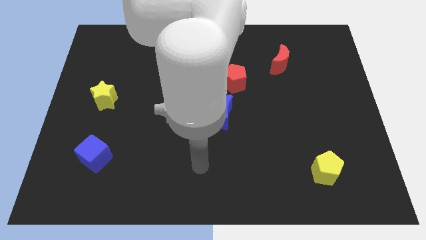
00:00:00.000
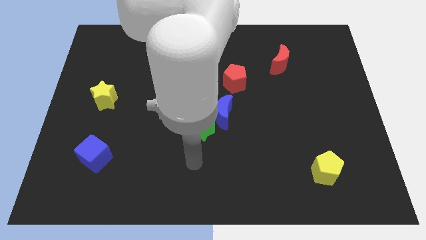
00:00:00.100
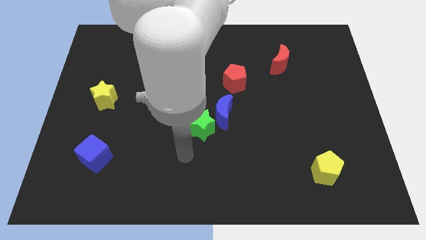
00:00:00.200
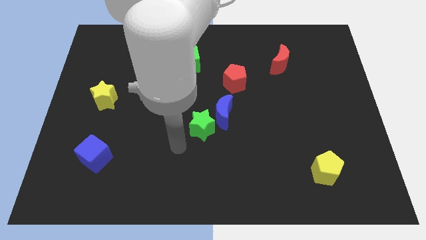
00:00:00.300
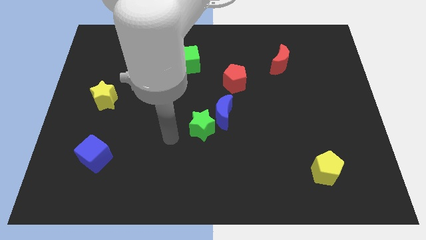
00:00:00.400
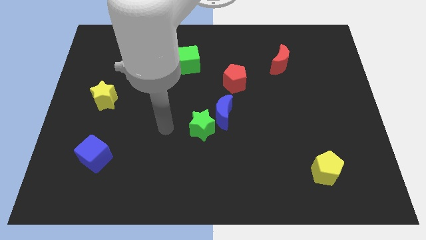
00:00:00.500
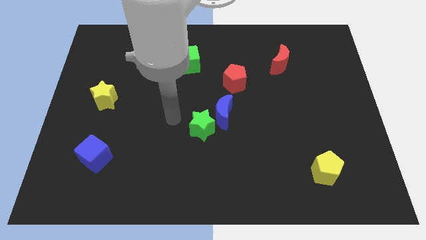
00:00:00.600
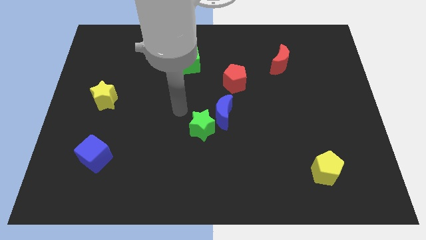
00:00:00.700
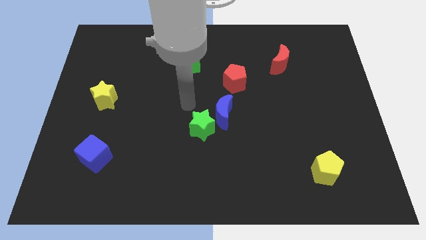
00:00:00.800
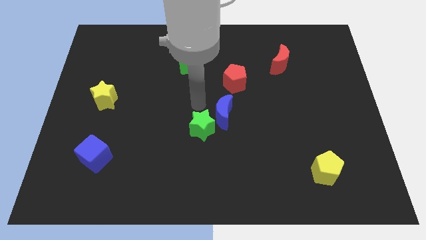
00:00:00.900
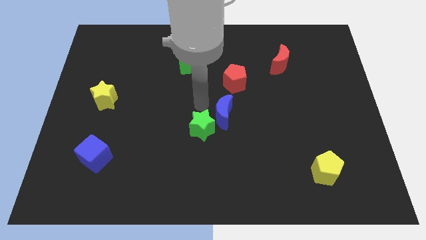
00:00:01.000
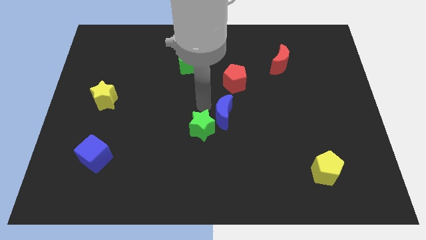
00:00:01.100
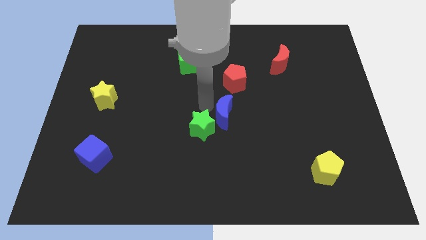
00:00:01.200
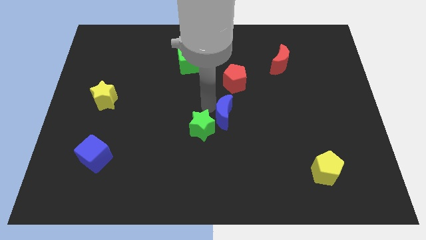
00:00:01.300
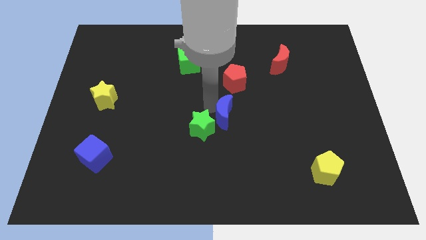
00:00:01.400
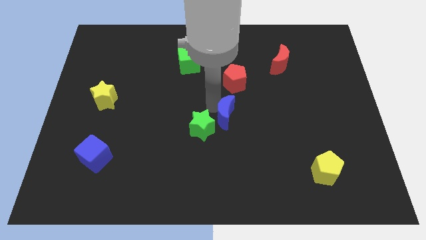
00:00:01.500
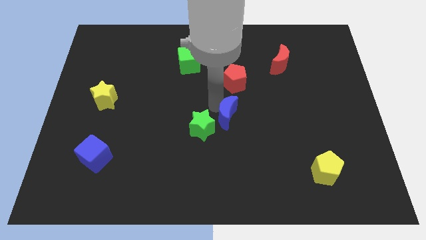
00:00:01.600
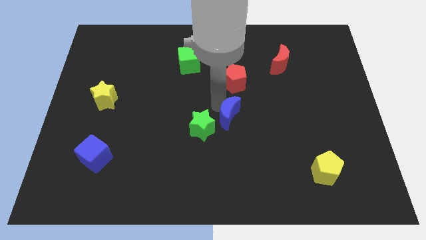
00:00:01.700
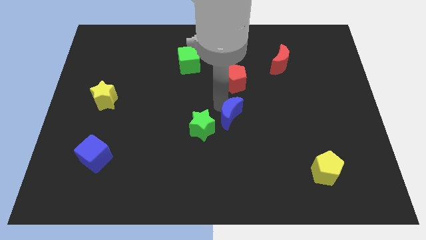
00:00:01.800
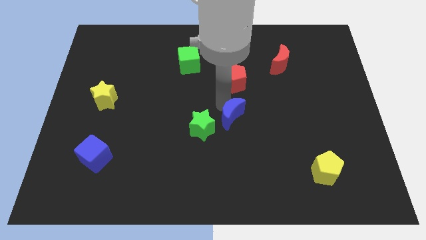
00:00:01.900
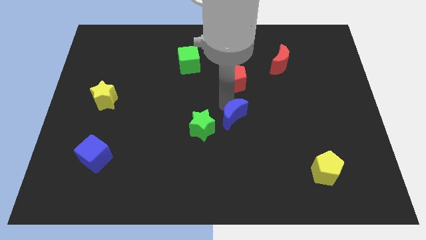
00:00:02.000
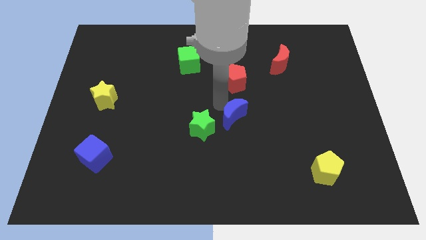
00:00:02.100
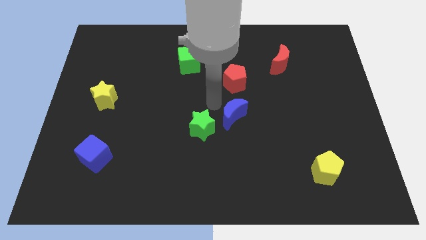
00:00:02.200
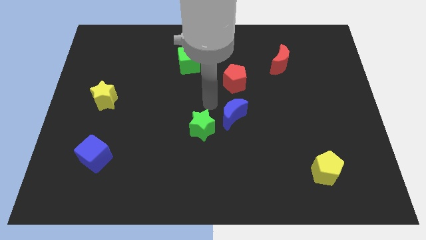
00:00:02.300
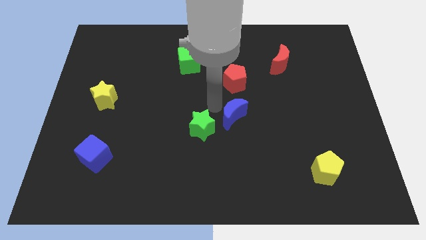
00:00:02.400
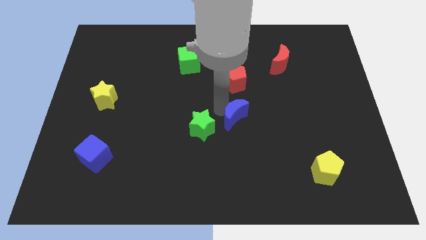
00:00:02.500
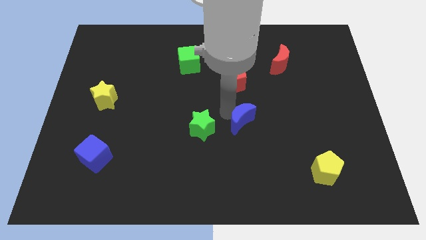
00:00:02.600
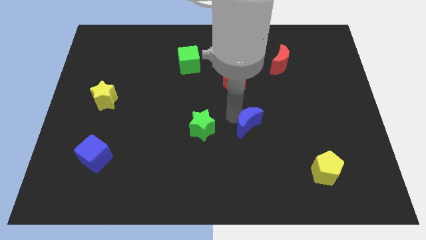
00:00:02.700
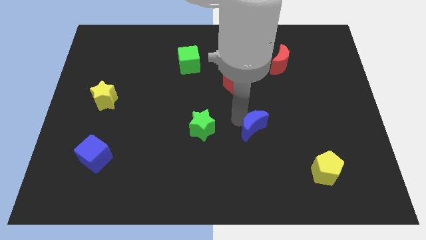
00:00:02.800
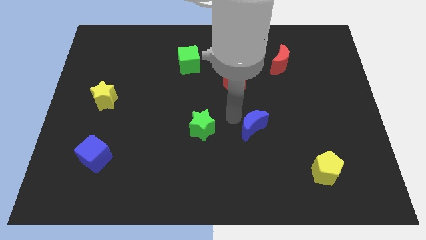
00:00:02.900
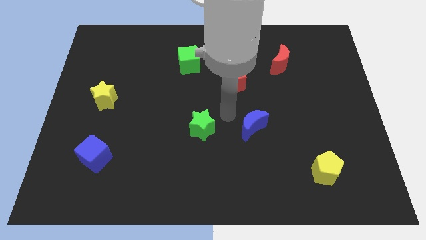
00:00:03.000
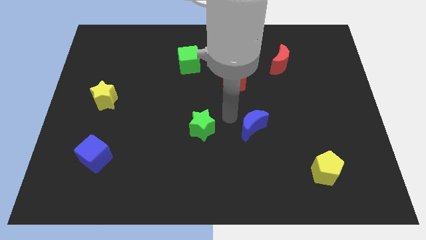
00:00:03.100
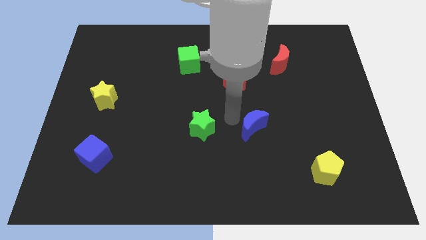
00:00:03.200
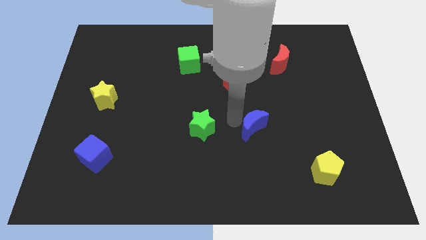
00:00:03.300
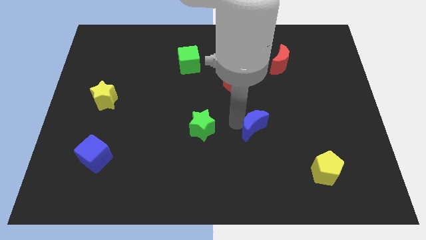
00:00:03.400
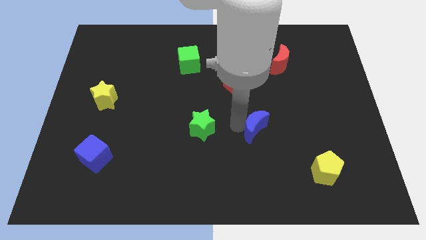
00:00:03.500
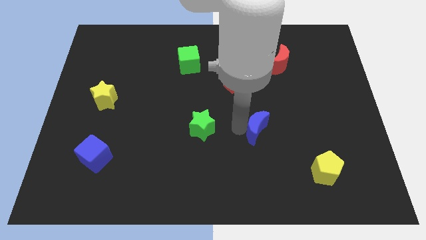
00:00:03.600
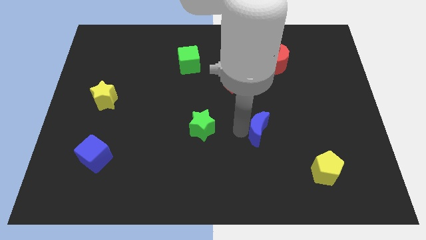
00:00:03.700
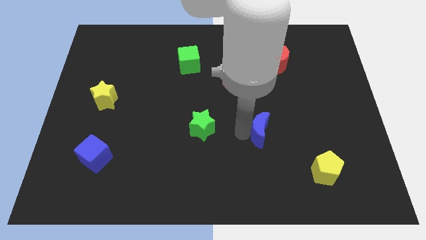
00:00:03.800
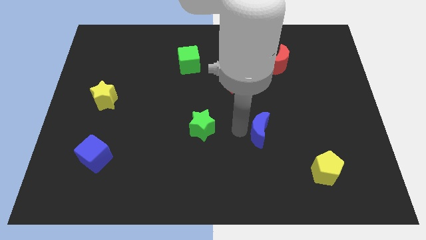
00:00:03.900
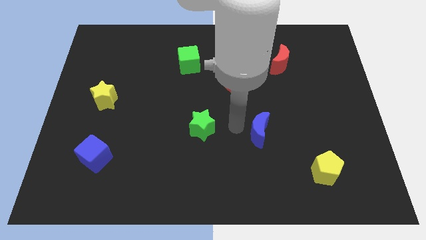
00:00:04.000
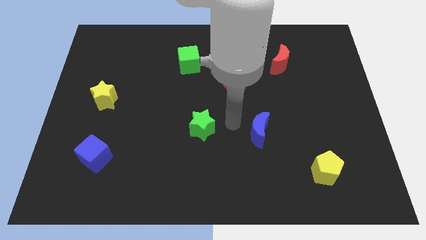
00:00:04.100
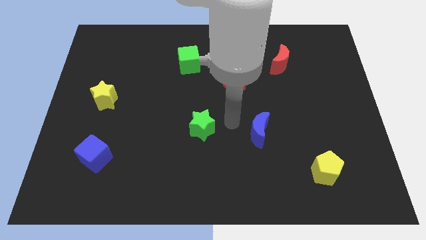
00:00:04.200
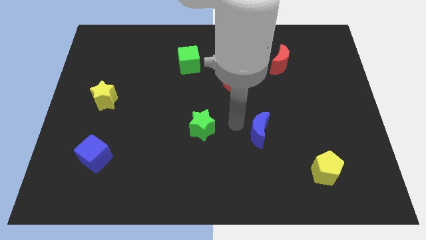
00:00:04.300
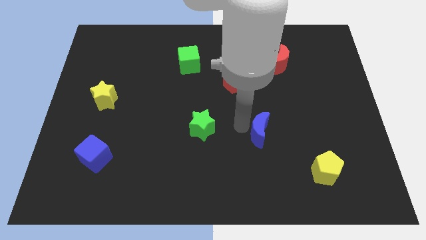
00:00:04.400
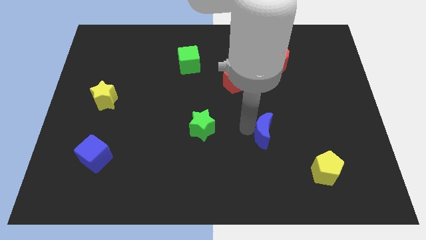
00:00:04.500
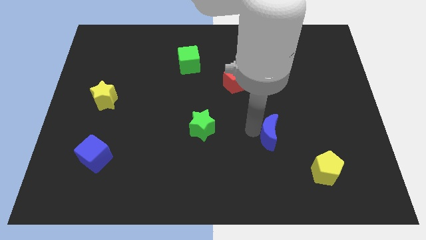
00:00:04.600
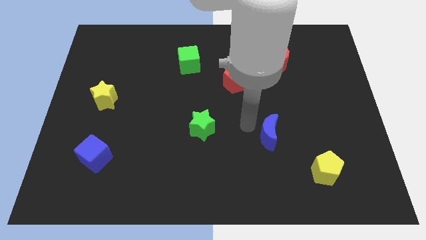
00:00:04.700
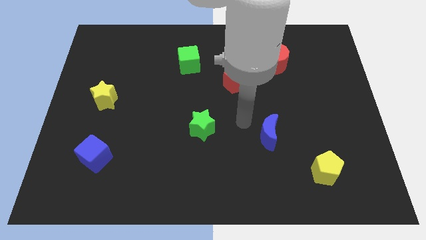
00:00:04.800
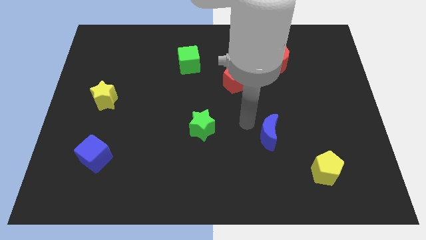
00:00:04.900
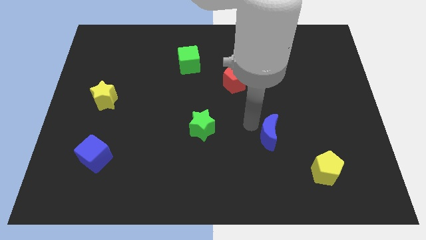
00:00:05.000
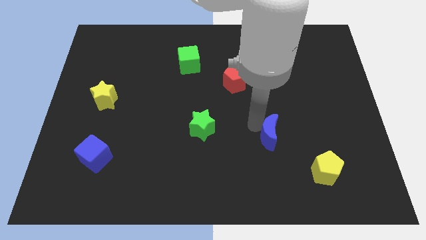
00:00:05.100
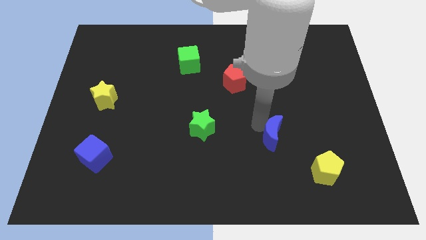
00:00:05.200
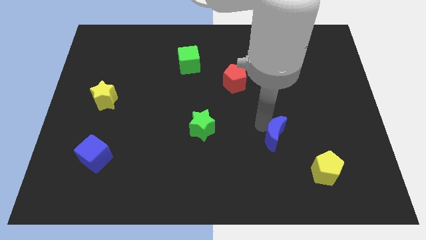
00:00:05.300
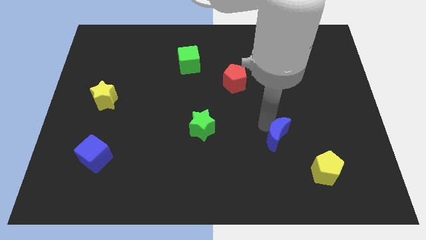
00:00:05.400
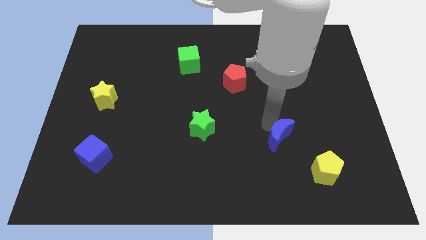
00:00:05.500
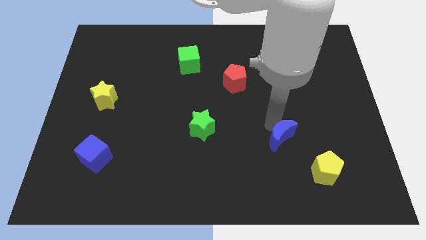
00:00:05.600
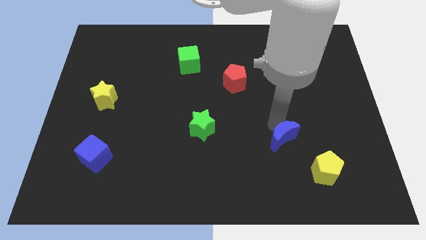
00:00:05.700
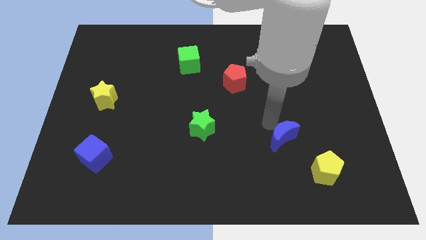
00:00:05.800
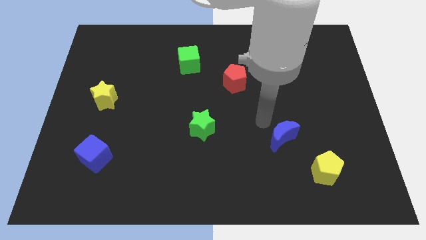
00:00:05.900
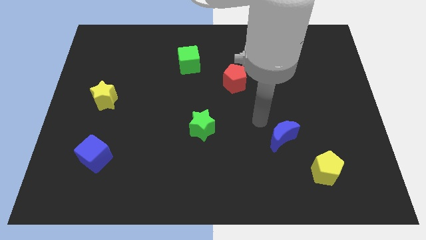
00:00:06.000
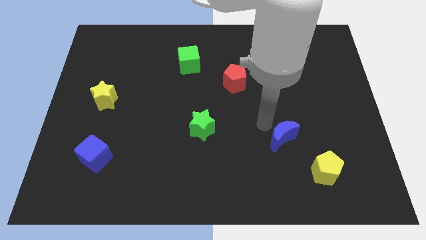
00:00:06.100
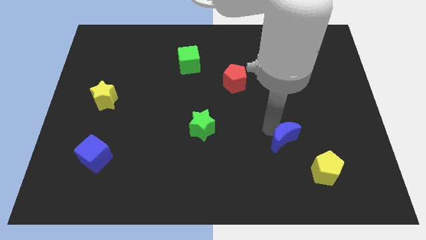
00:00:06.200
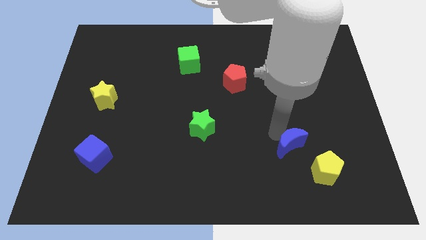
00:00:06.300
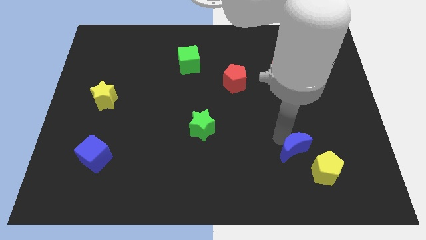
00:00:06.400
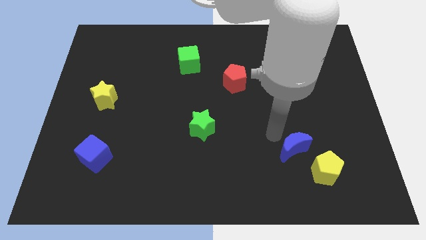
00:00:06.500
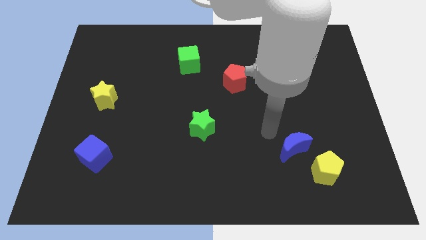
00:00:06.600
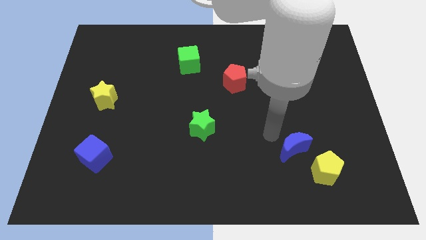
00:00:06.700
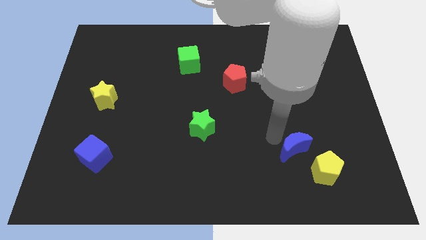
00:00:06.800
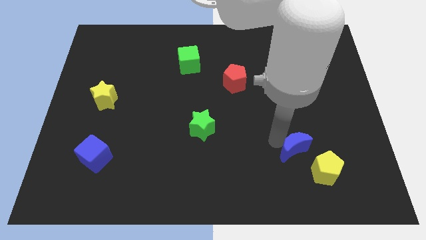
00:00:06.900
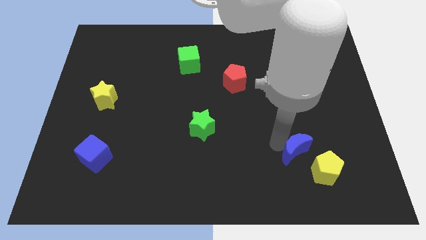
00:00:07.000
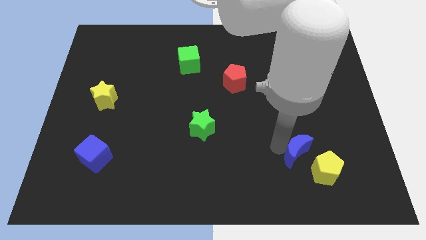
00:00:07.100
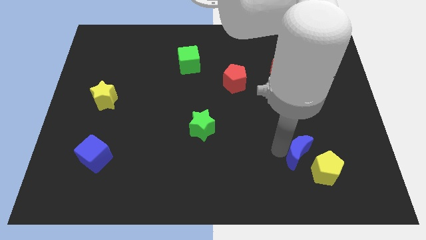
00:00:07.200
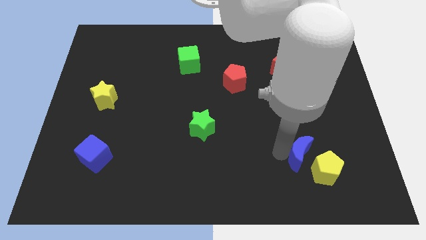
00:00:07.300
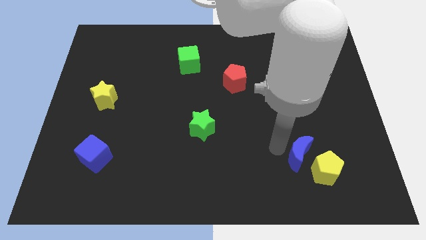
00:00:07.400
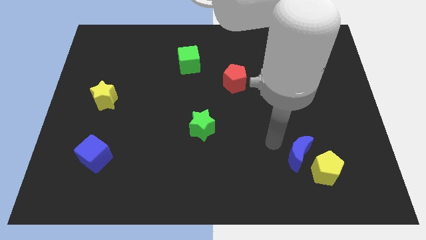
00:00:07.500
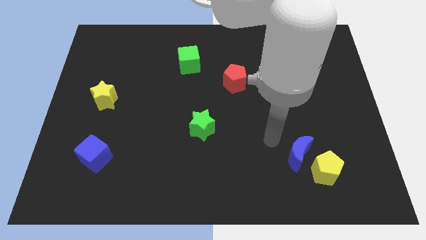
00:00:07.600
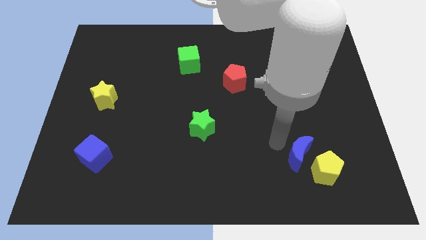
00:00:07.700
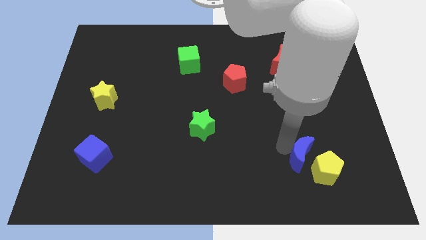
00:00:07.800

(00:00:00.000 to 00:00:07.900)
put the blue moon next to the yellow pentagon
